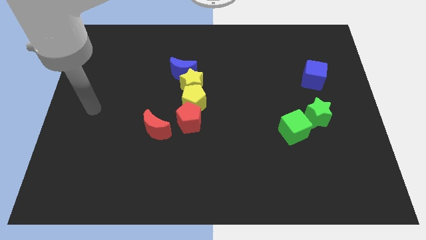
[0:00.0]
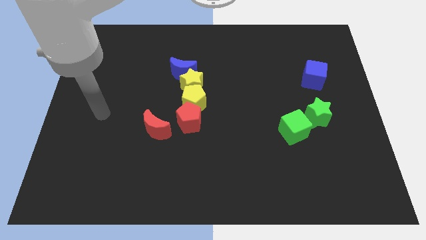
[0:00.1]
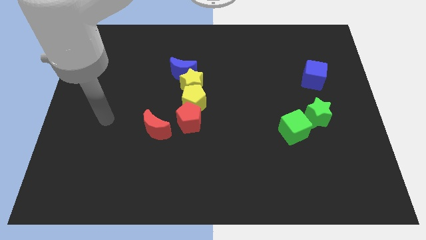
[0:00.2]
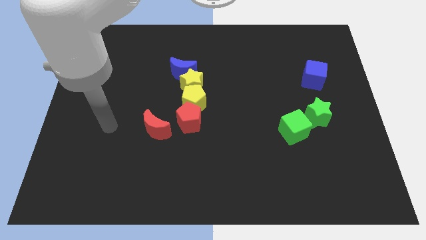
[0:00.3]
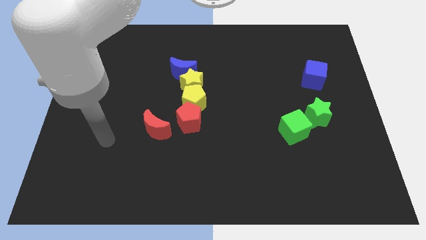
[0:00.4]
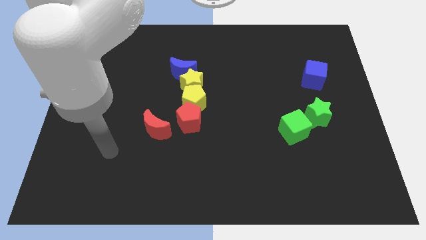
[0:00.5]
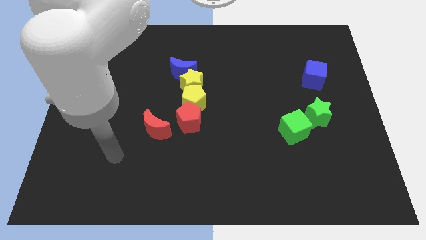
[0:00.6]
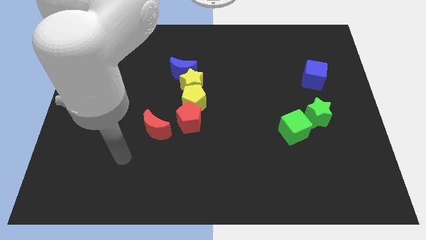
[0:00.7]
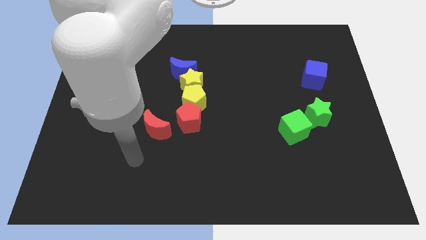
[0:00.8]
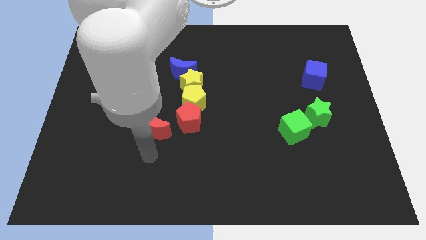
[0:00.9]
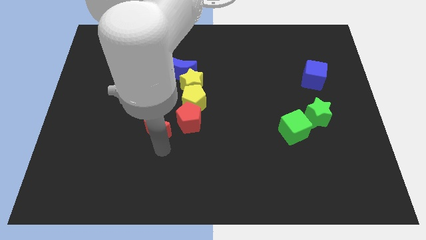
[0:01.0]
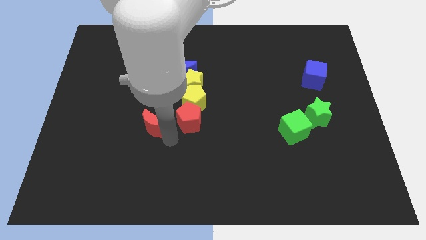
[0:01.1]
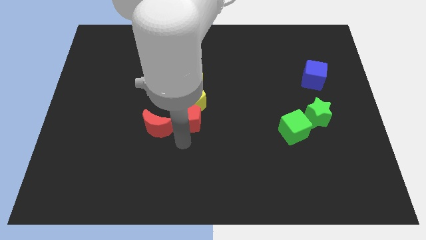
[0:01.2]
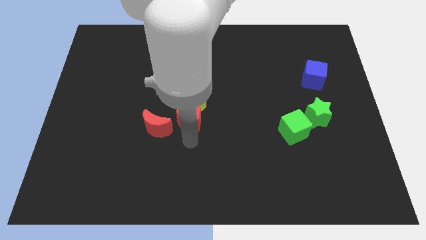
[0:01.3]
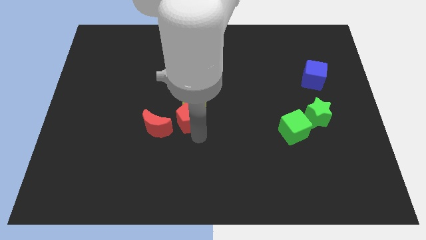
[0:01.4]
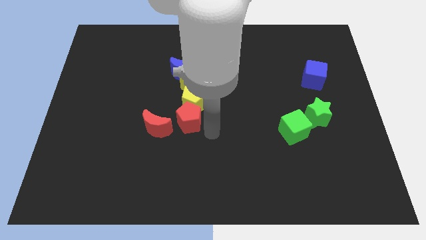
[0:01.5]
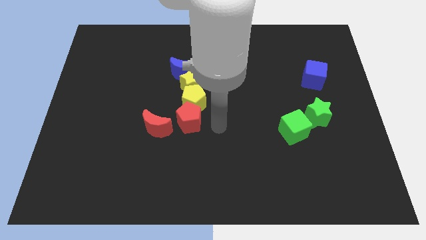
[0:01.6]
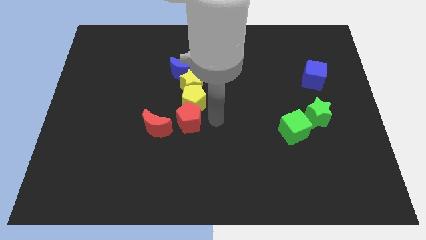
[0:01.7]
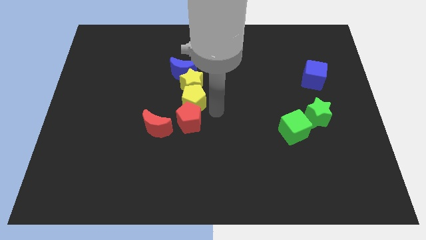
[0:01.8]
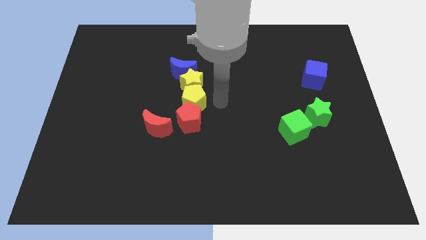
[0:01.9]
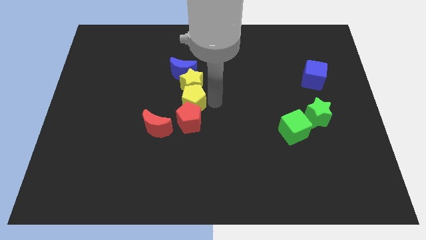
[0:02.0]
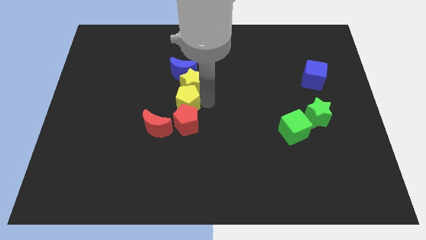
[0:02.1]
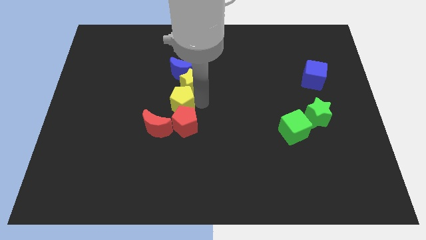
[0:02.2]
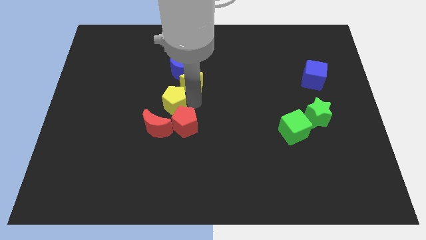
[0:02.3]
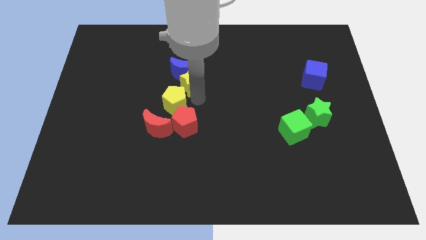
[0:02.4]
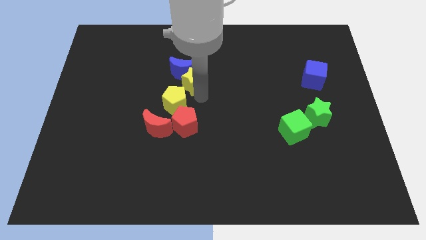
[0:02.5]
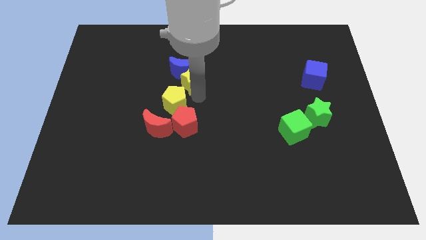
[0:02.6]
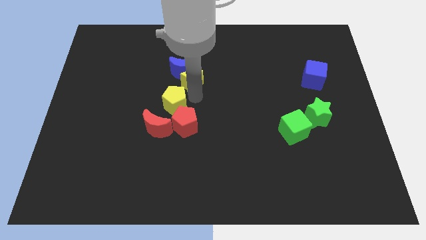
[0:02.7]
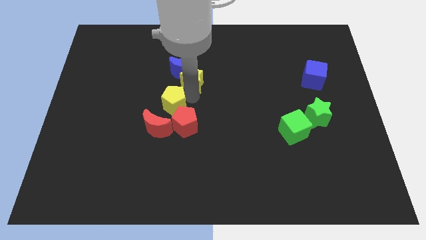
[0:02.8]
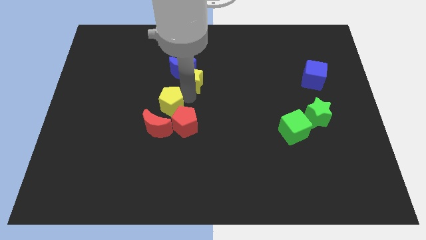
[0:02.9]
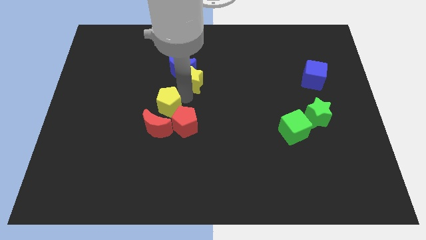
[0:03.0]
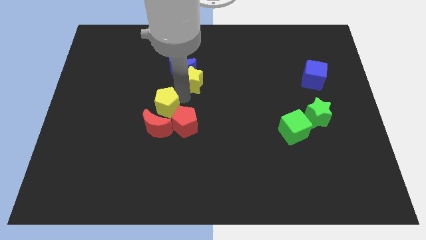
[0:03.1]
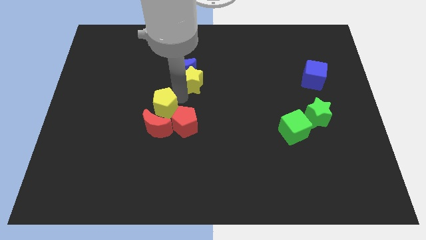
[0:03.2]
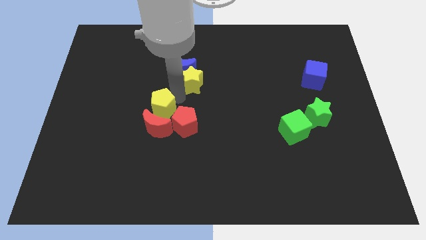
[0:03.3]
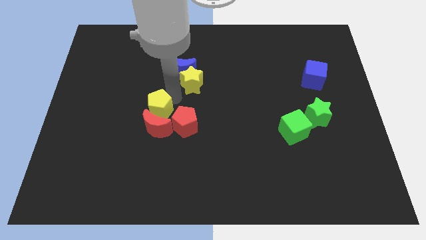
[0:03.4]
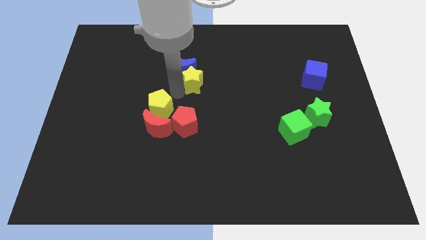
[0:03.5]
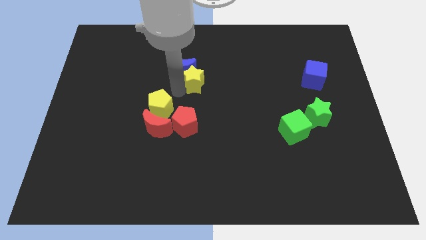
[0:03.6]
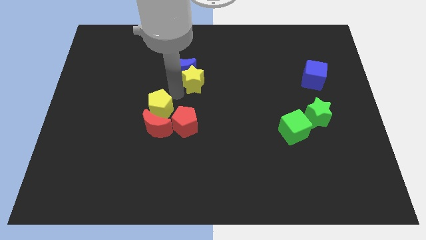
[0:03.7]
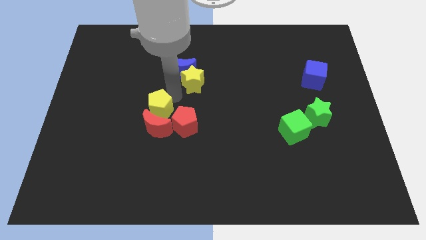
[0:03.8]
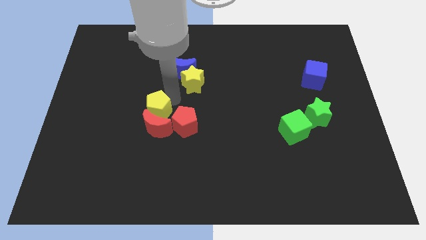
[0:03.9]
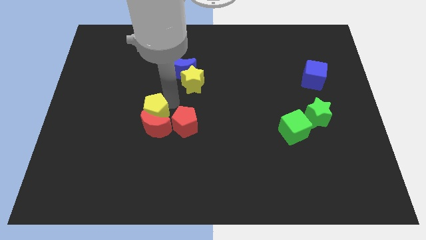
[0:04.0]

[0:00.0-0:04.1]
slide the yellow pentagon somewhat diagonally downwards and to the left

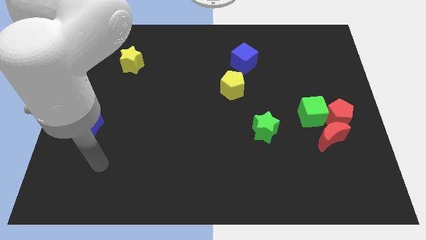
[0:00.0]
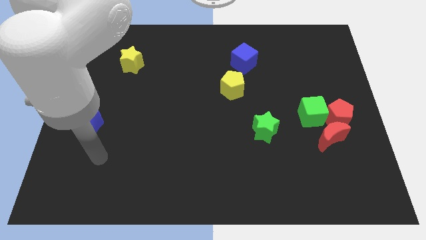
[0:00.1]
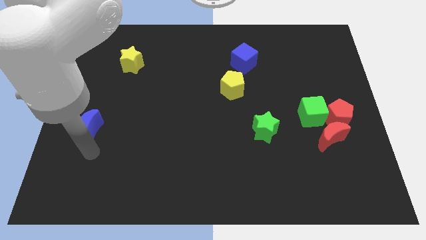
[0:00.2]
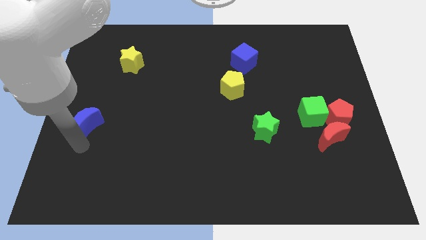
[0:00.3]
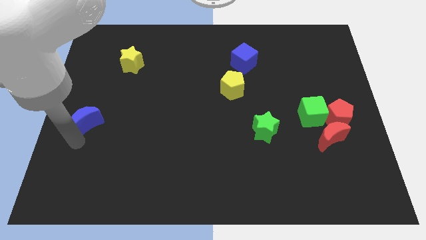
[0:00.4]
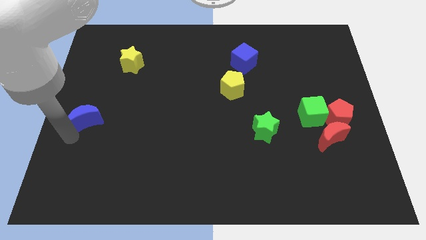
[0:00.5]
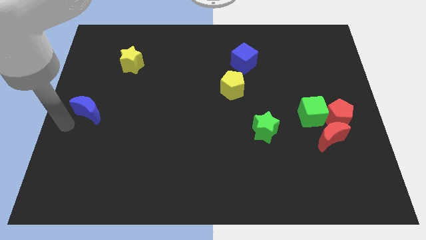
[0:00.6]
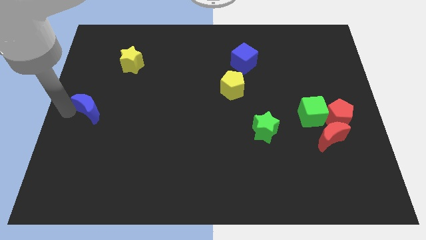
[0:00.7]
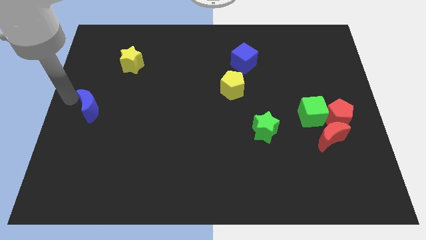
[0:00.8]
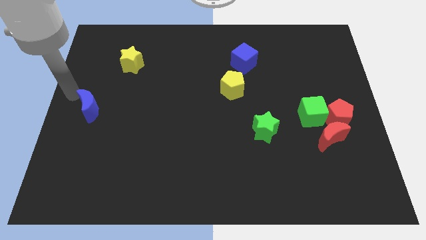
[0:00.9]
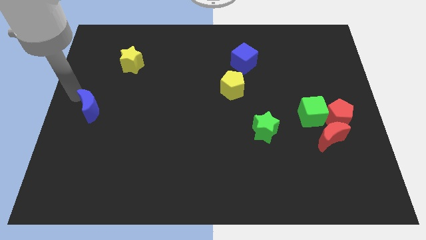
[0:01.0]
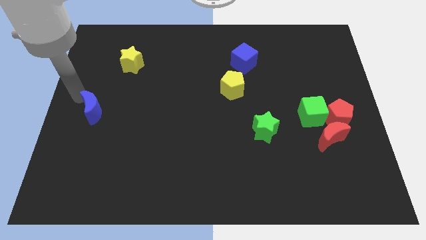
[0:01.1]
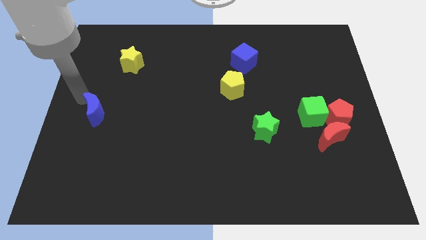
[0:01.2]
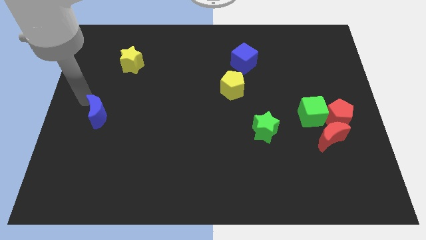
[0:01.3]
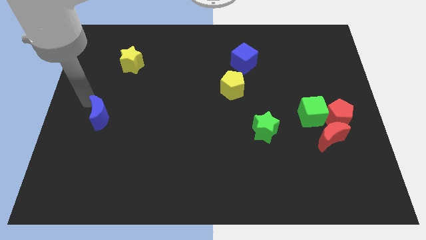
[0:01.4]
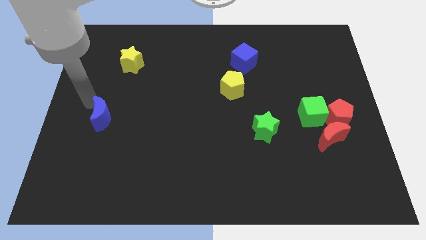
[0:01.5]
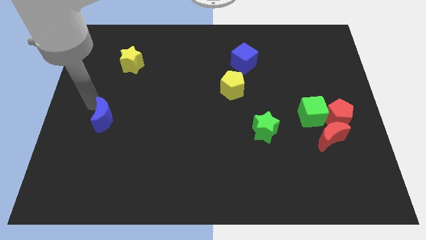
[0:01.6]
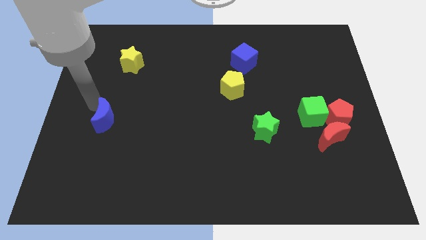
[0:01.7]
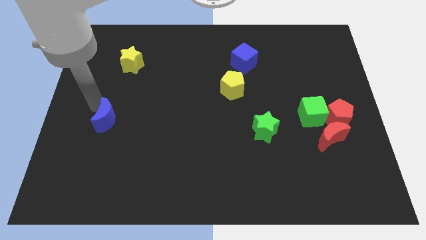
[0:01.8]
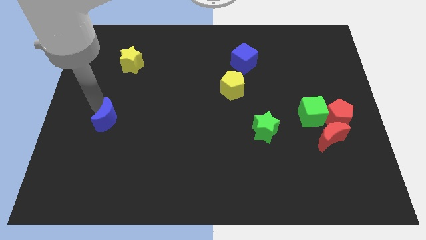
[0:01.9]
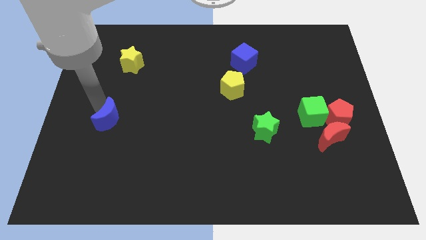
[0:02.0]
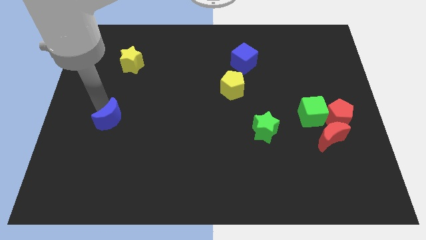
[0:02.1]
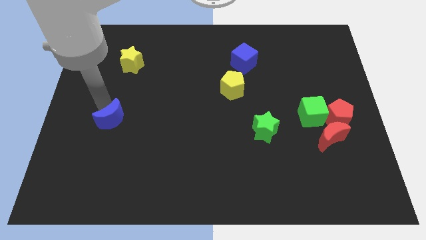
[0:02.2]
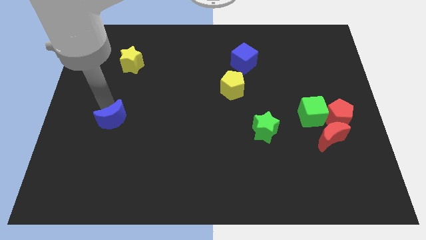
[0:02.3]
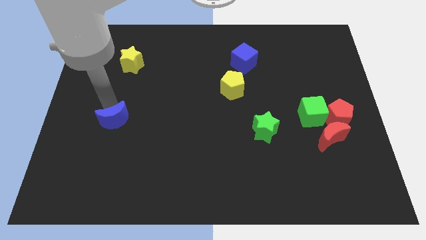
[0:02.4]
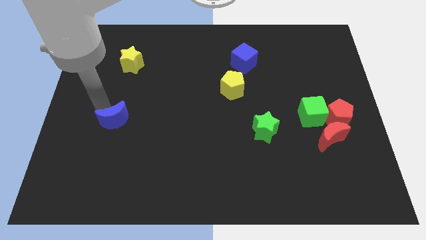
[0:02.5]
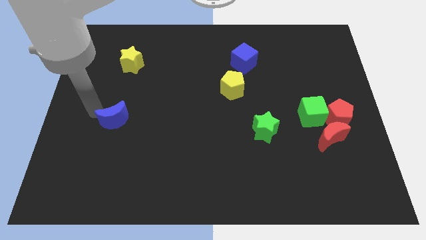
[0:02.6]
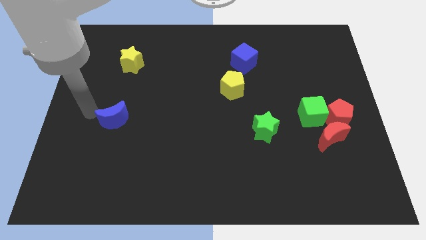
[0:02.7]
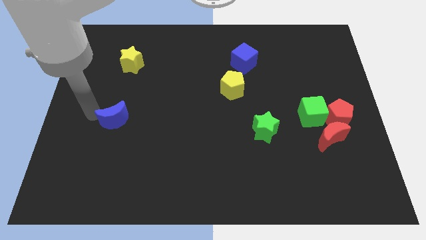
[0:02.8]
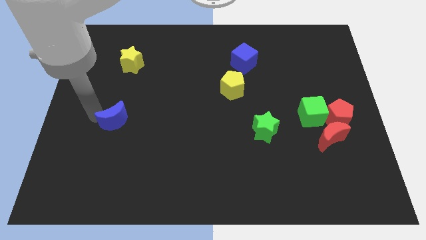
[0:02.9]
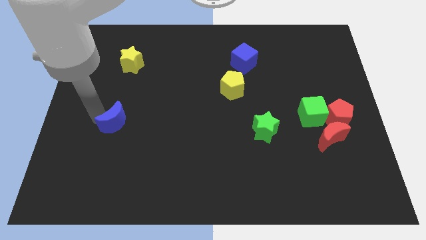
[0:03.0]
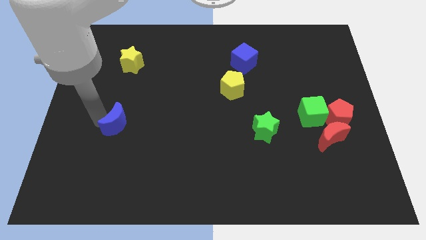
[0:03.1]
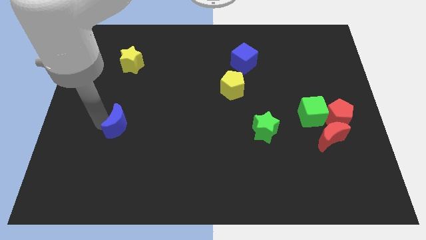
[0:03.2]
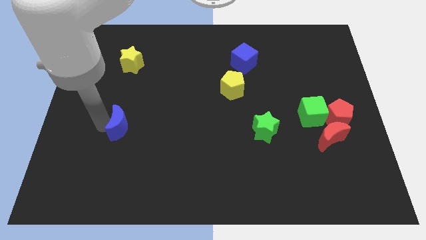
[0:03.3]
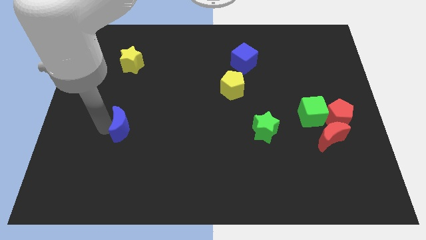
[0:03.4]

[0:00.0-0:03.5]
slide the blue moon to the right somewhat

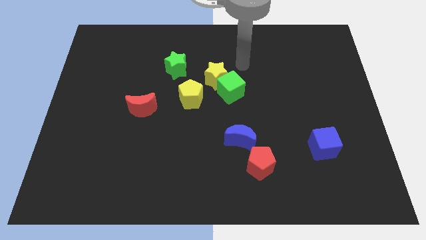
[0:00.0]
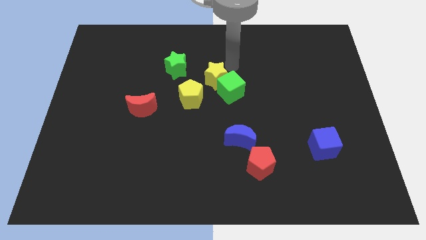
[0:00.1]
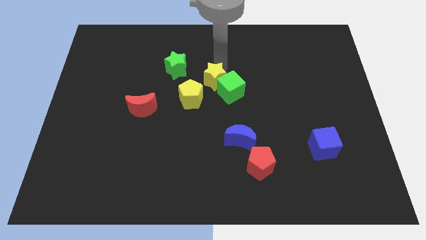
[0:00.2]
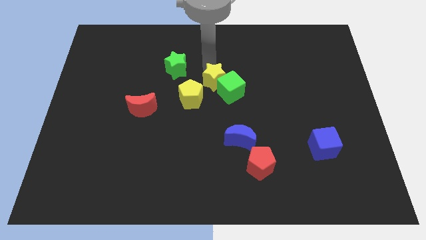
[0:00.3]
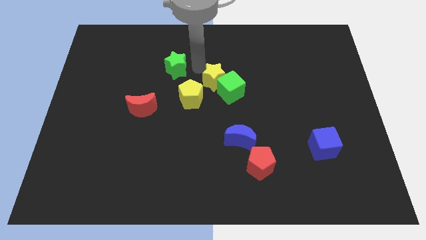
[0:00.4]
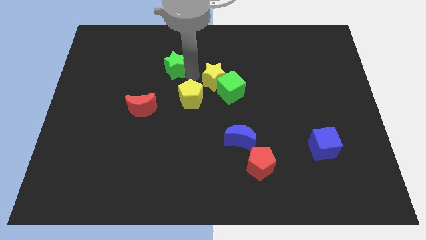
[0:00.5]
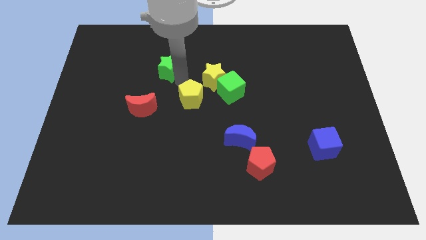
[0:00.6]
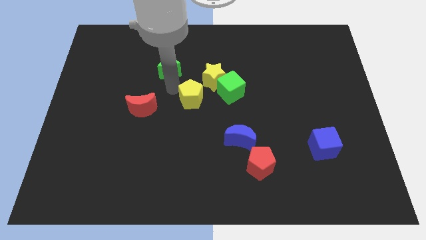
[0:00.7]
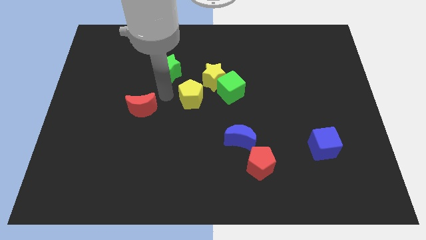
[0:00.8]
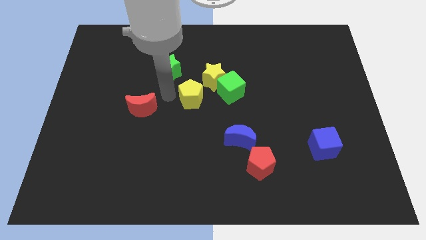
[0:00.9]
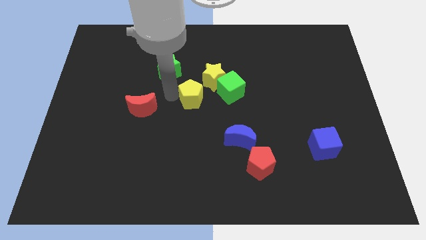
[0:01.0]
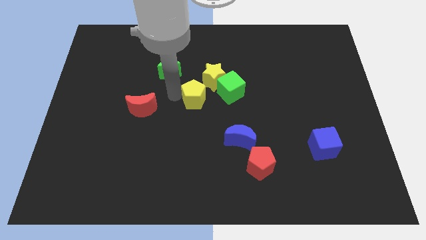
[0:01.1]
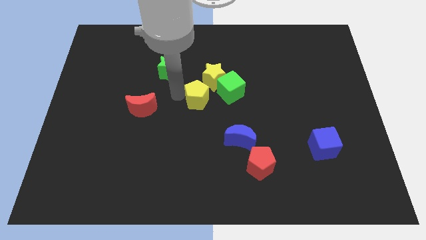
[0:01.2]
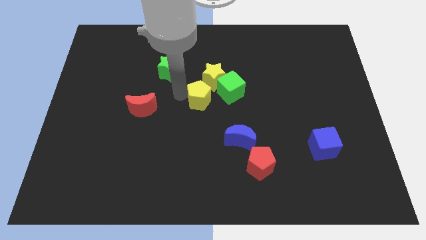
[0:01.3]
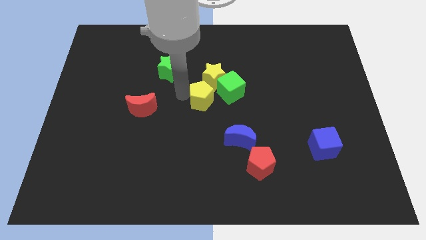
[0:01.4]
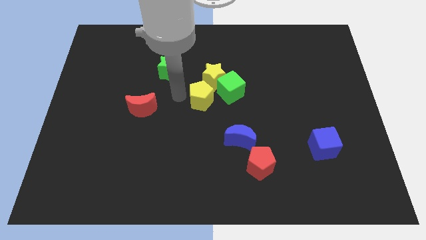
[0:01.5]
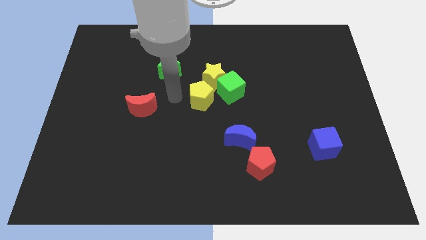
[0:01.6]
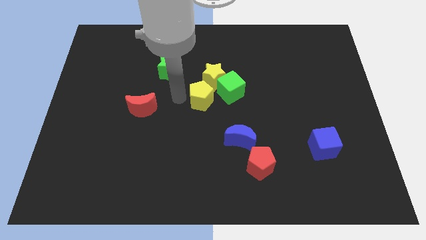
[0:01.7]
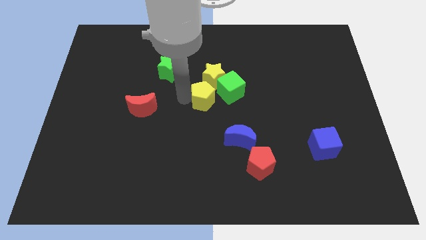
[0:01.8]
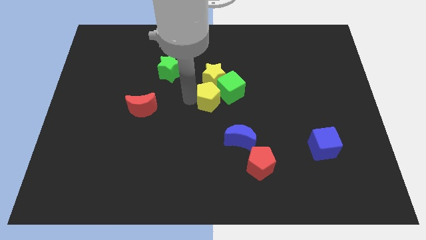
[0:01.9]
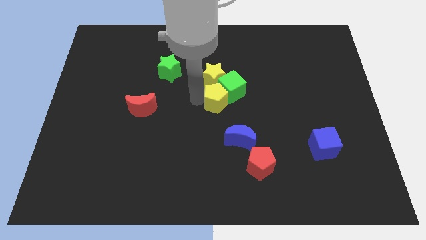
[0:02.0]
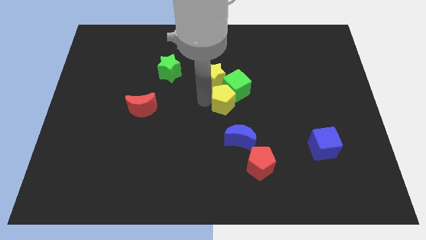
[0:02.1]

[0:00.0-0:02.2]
slightly push the yellow pentagon right
